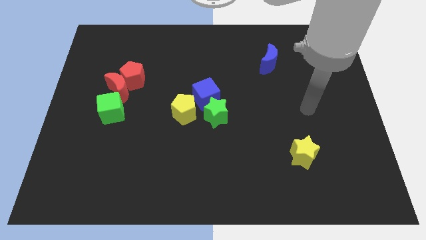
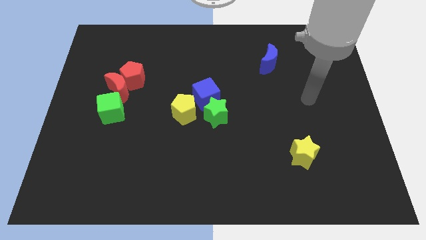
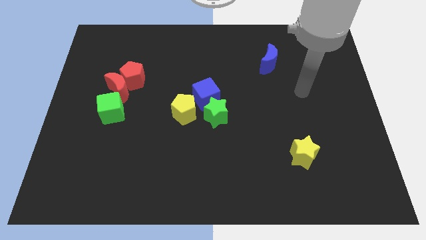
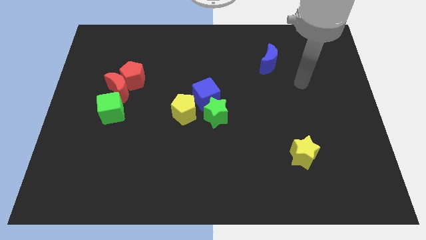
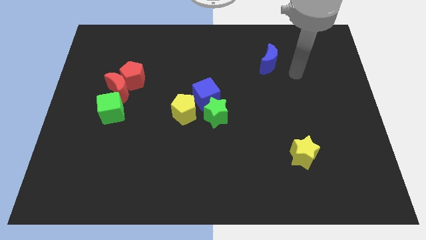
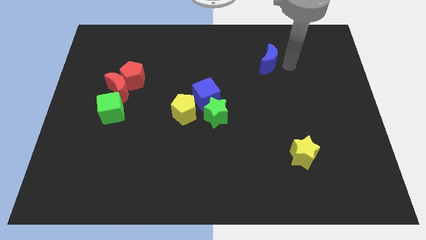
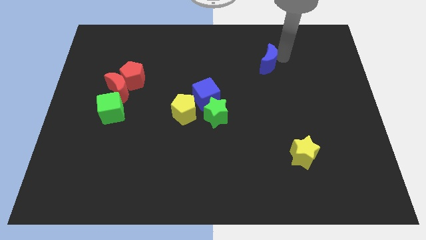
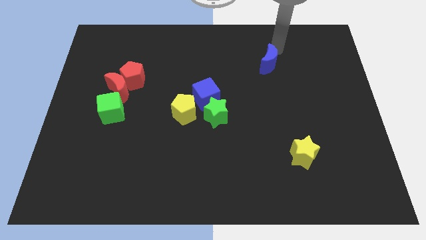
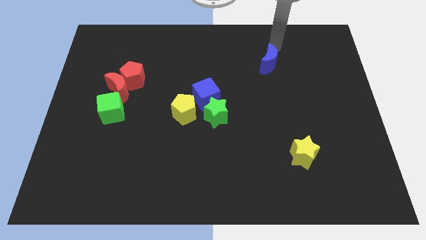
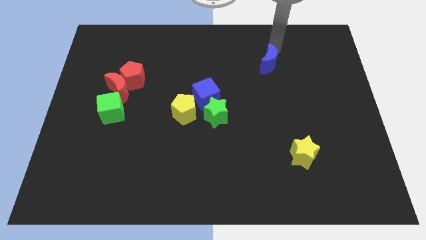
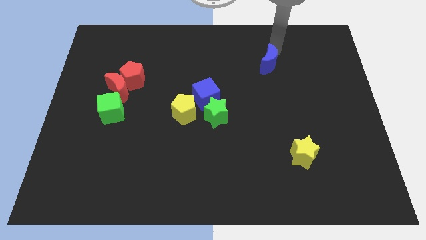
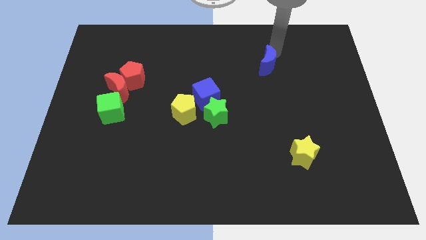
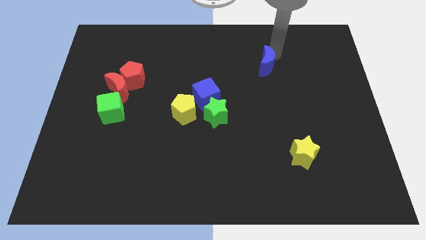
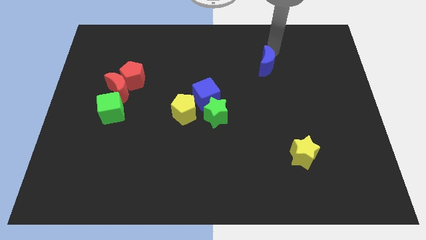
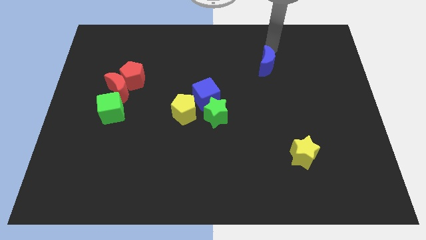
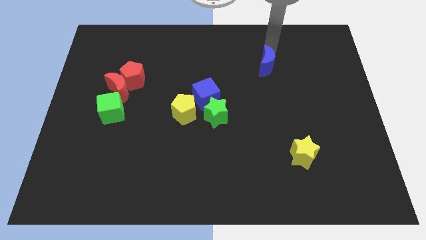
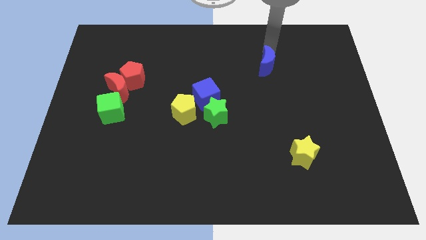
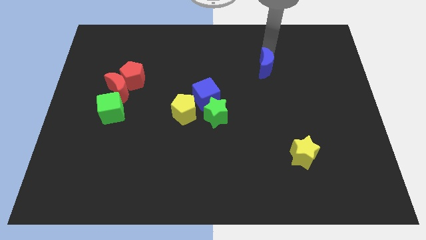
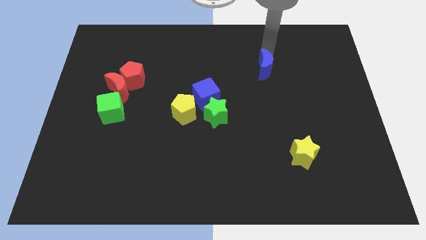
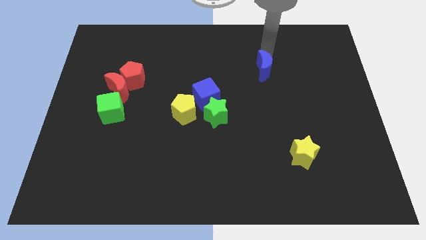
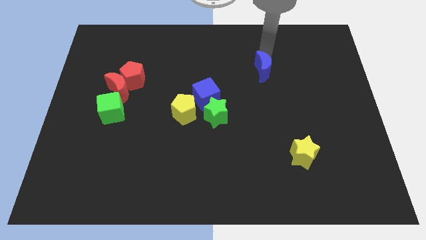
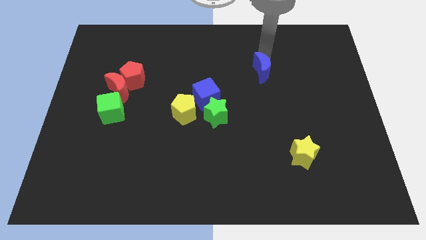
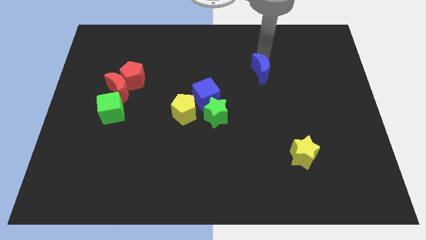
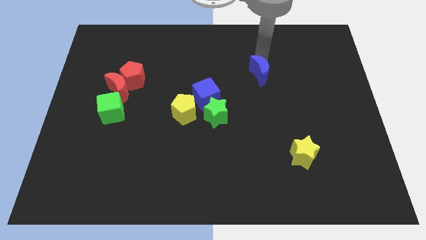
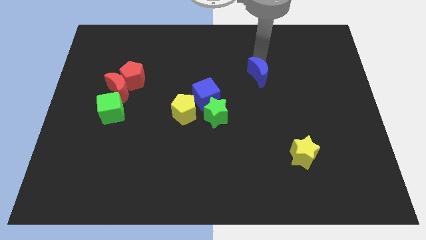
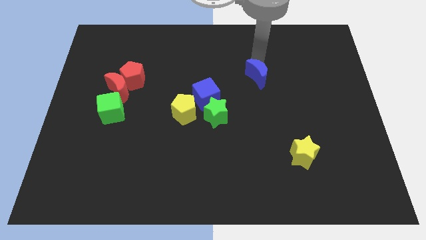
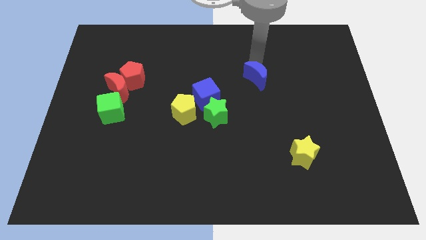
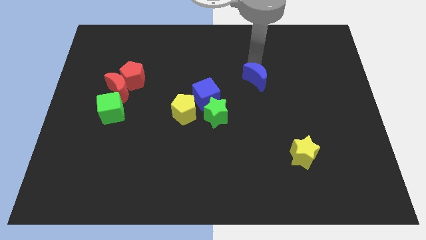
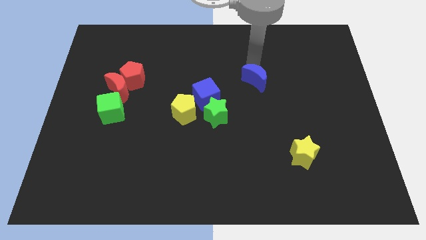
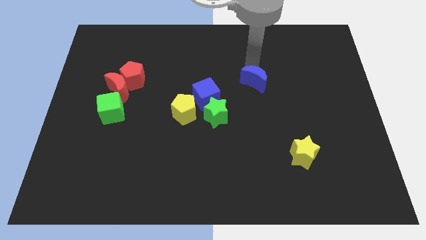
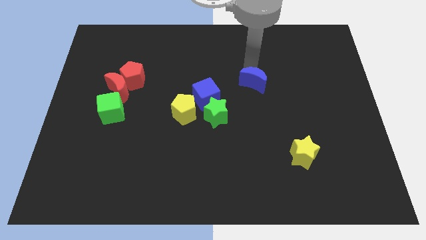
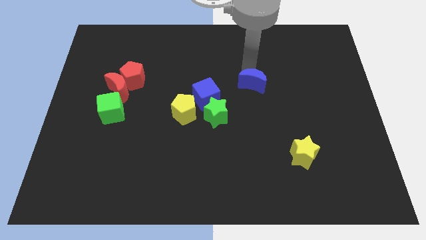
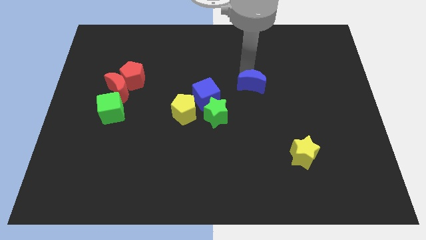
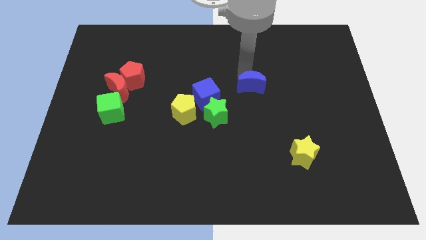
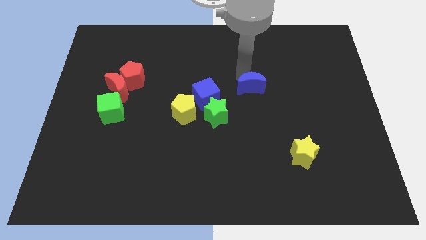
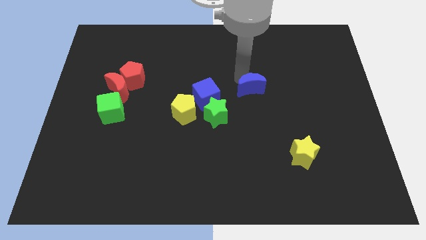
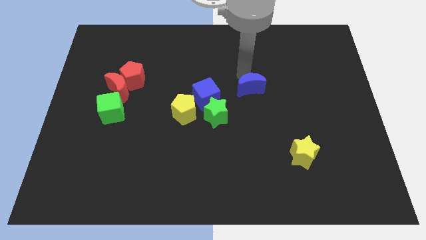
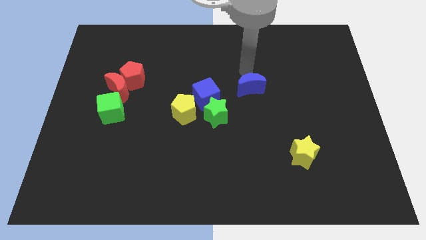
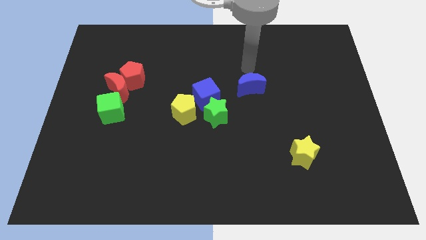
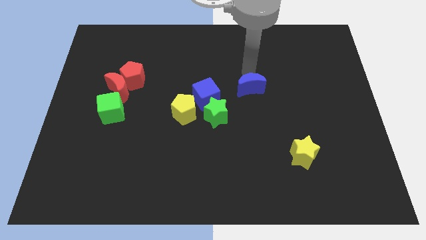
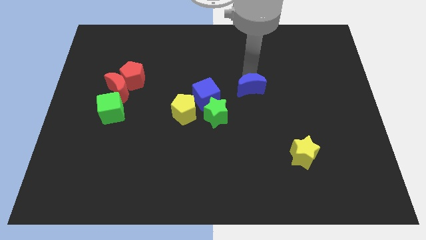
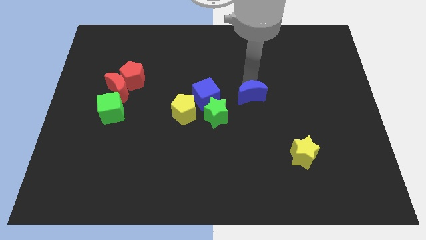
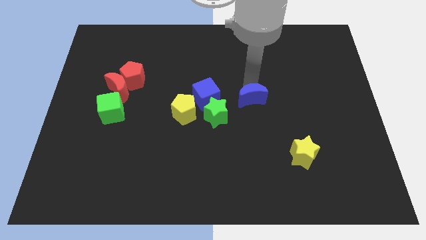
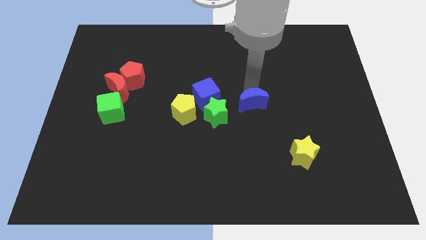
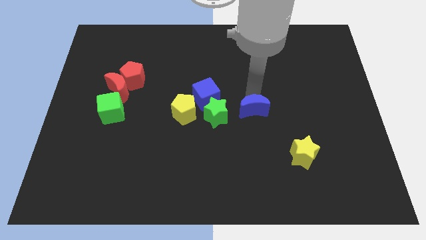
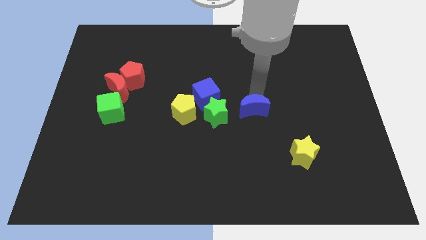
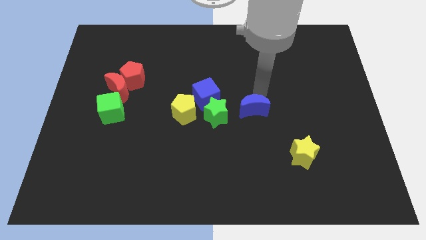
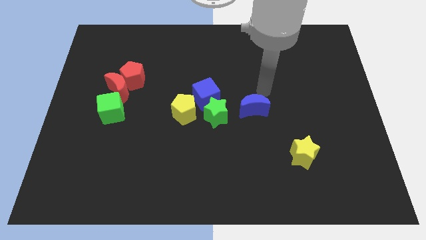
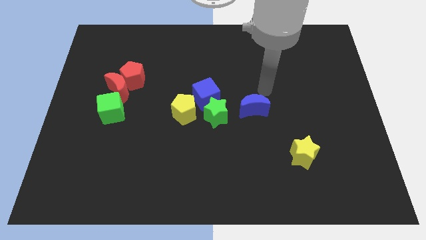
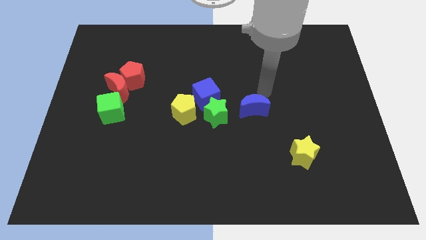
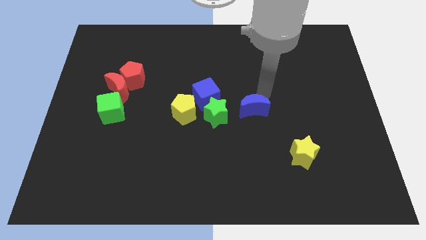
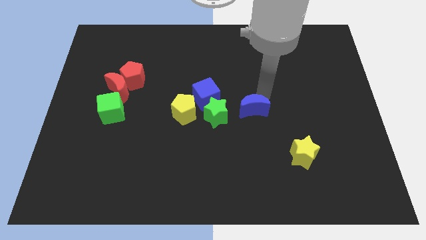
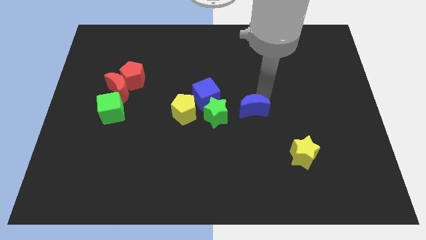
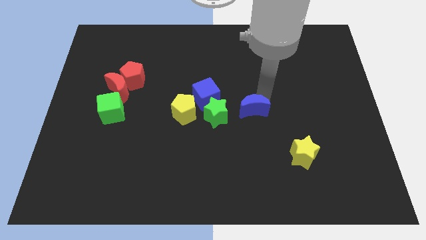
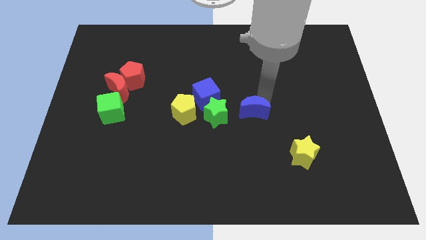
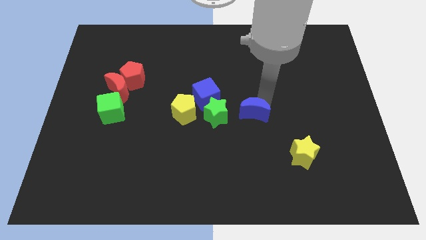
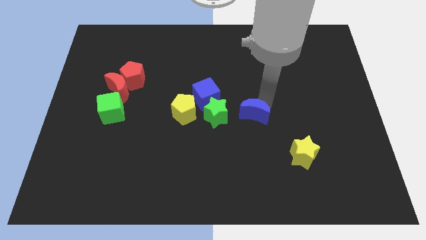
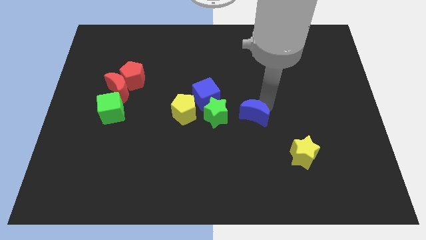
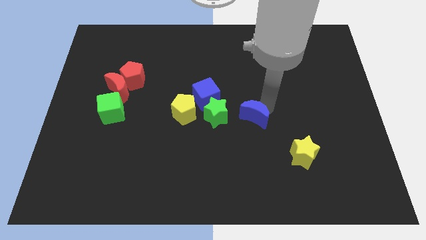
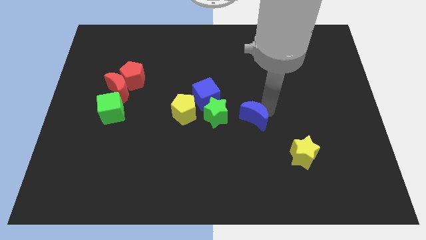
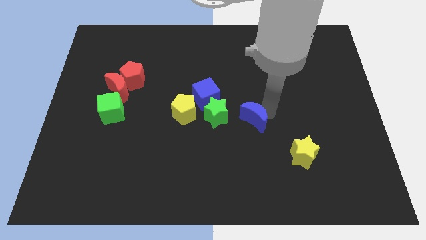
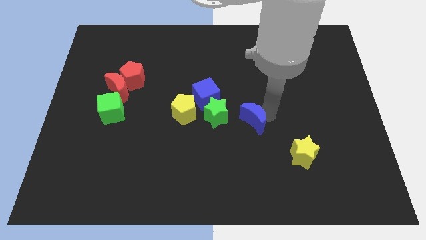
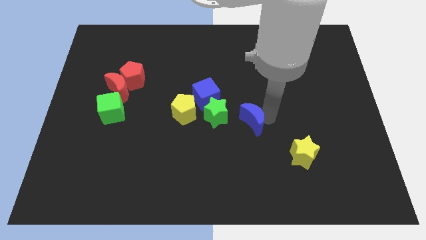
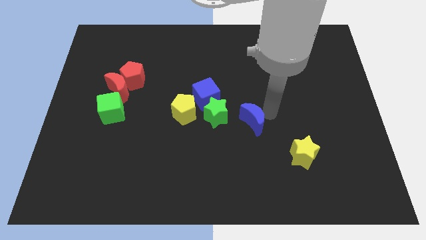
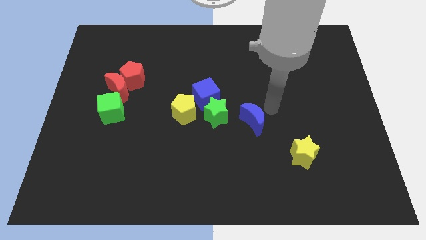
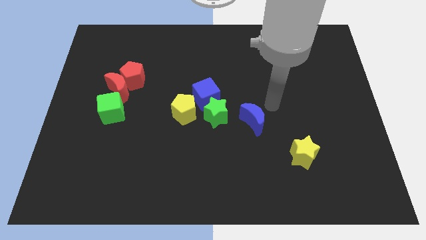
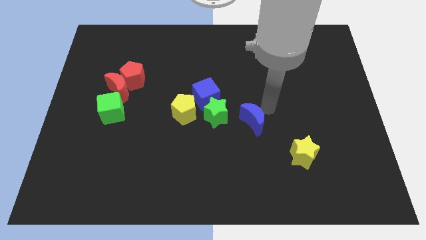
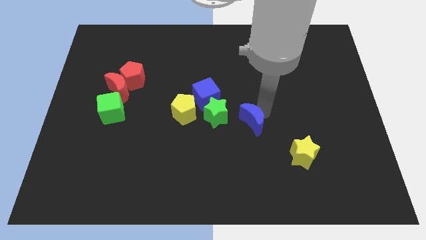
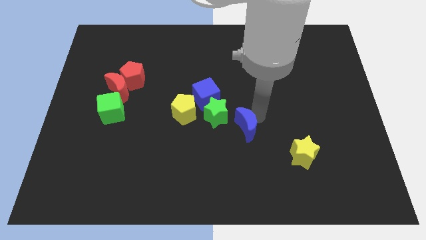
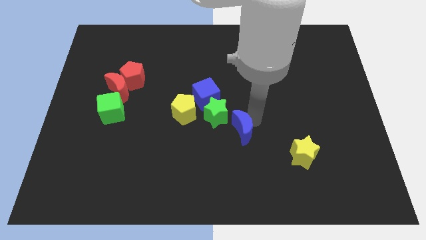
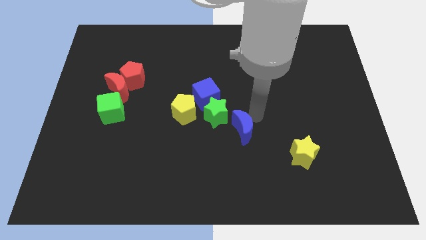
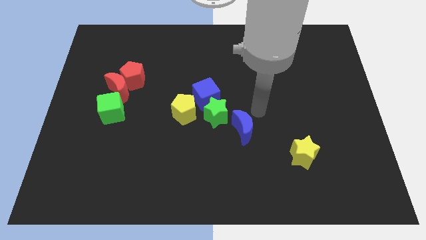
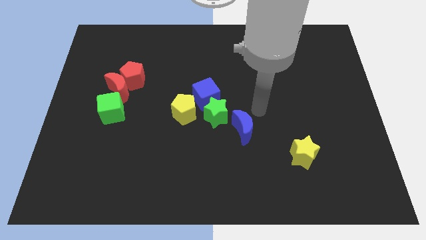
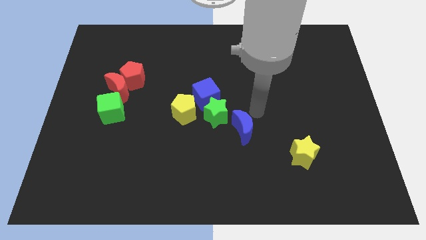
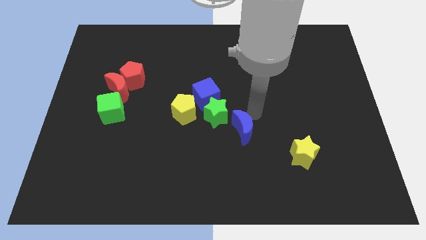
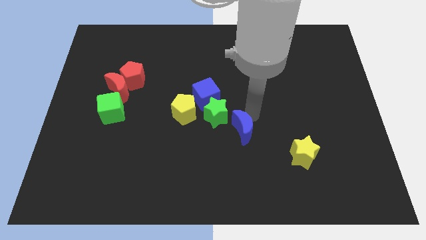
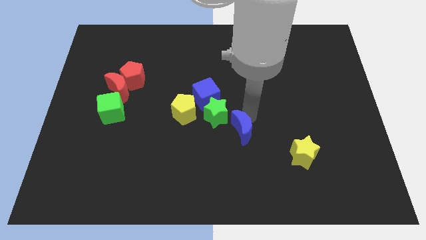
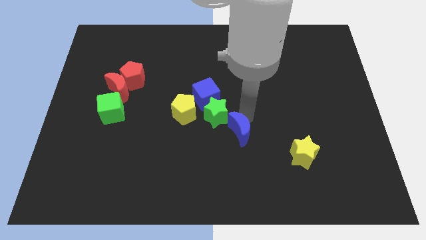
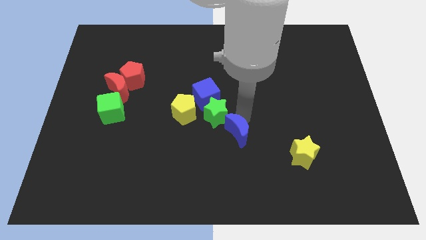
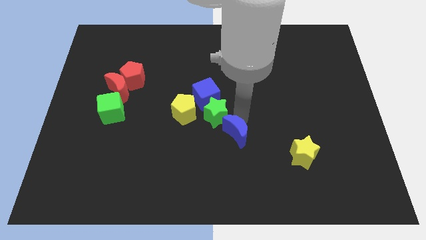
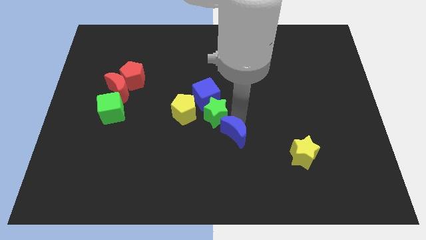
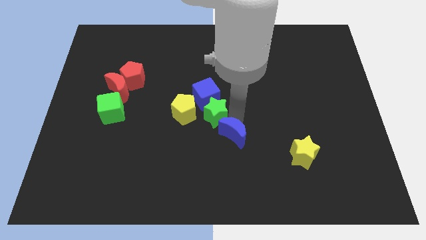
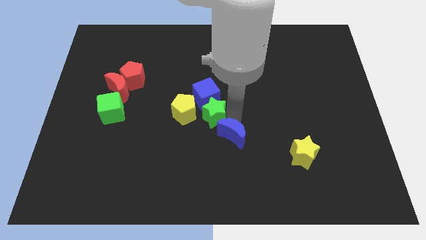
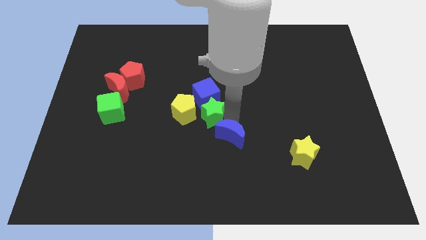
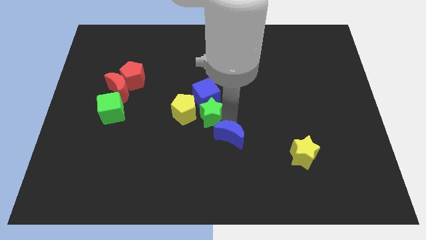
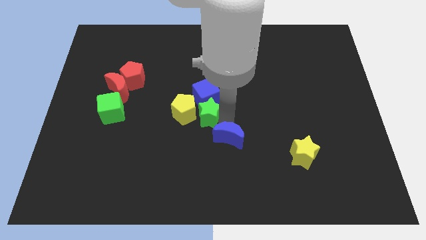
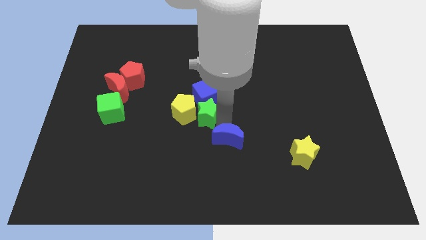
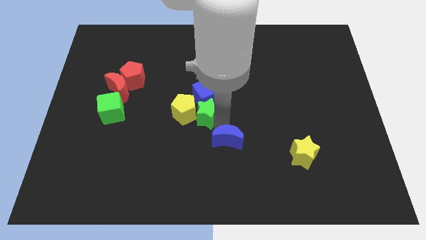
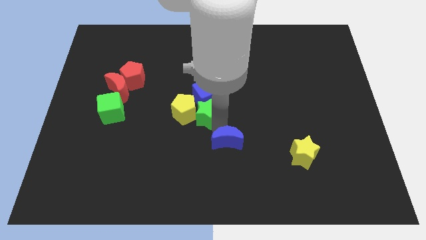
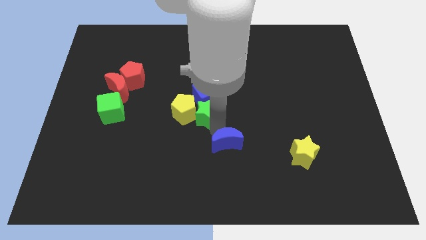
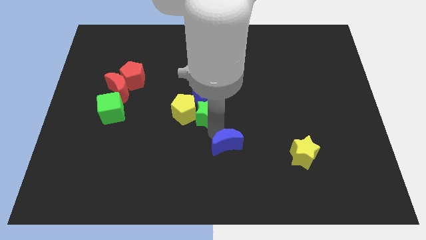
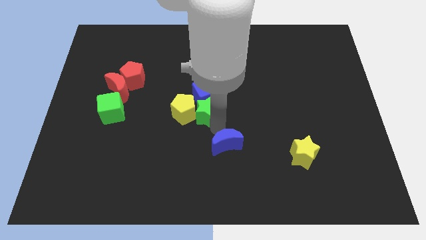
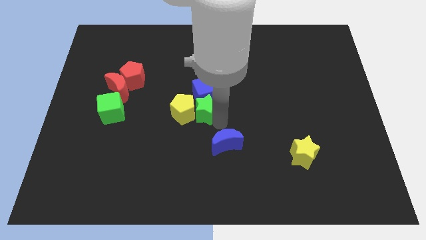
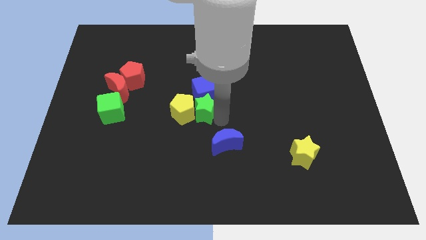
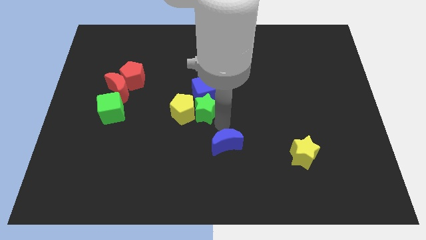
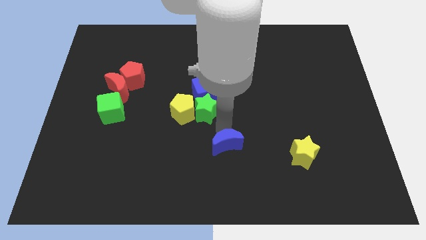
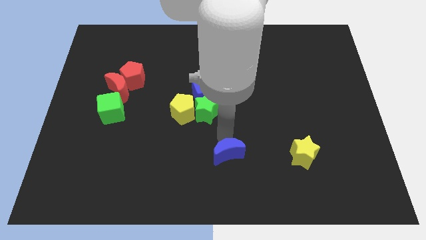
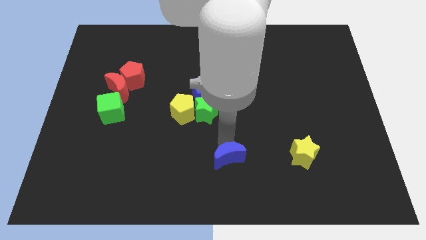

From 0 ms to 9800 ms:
push the blue moon to the bottom
